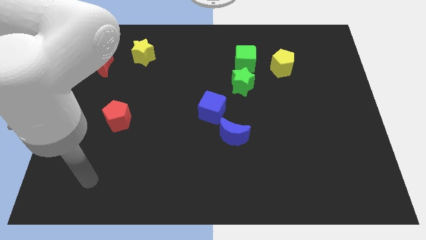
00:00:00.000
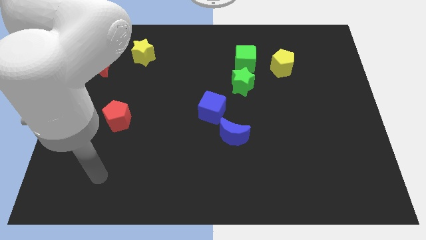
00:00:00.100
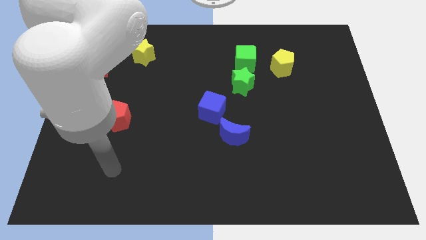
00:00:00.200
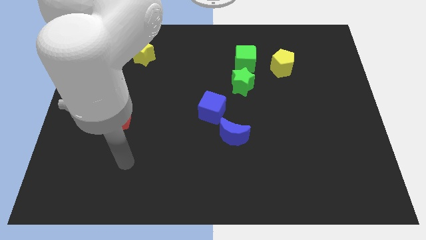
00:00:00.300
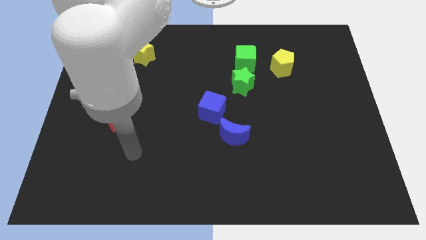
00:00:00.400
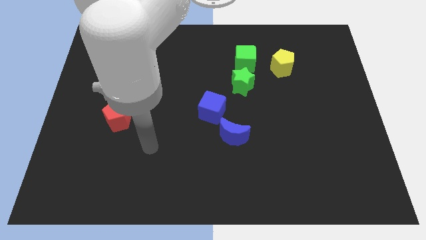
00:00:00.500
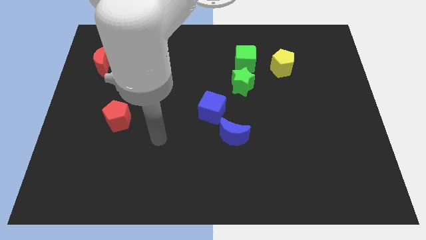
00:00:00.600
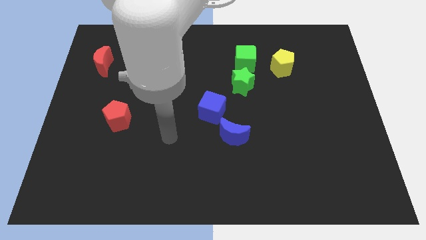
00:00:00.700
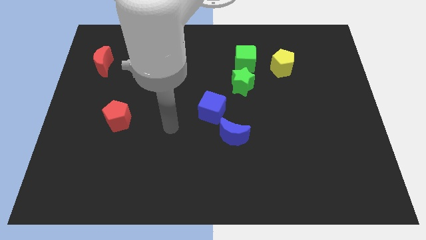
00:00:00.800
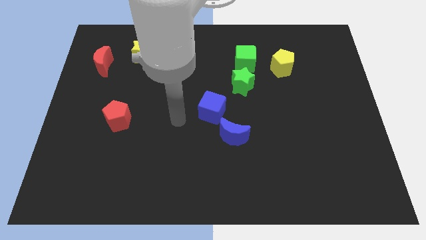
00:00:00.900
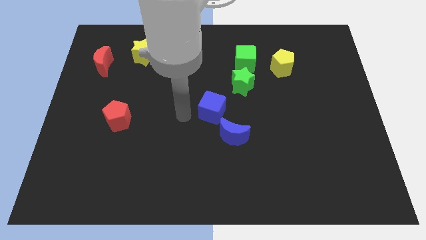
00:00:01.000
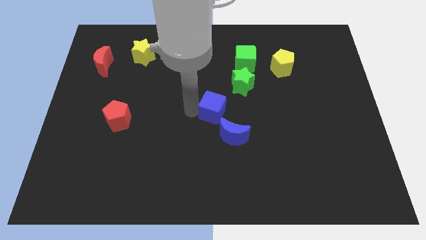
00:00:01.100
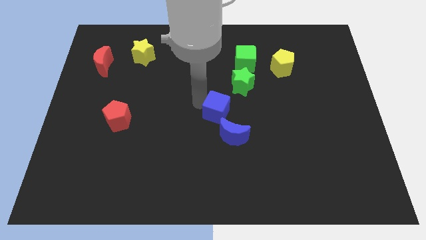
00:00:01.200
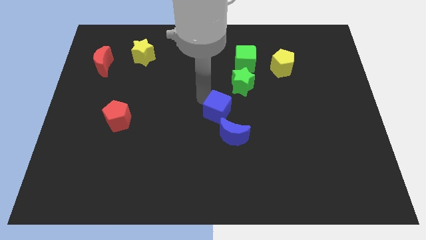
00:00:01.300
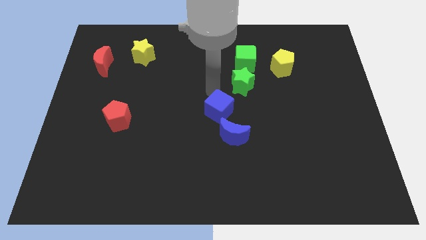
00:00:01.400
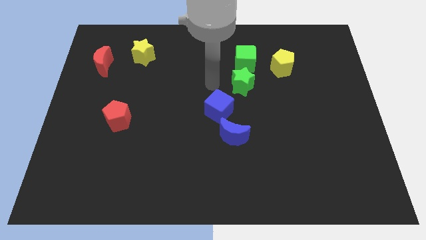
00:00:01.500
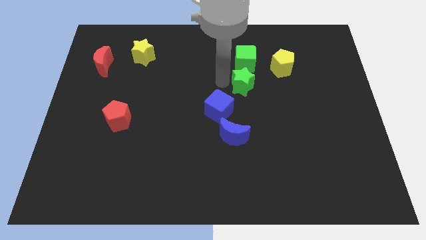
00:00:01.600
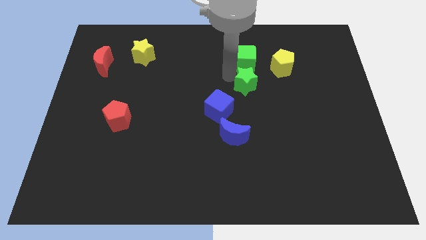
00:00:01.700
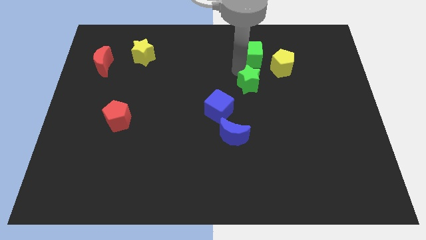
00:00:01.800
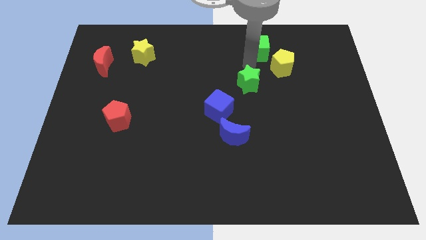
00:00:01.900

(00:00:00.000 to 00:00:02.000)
pull the green star apart from the green cube

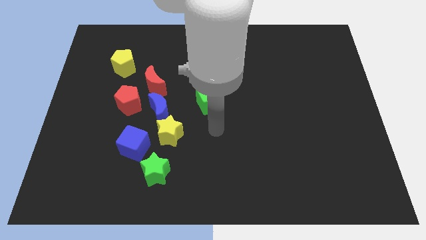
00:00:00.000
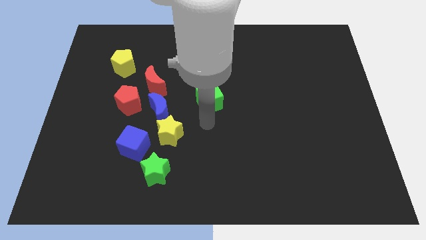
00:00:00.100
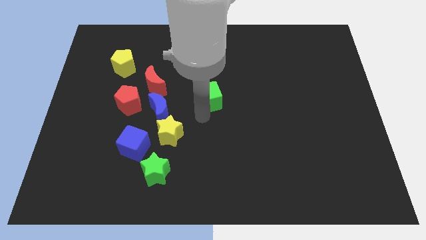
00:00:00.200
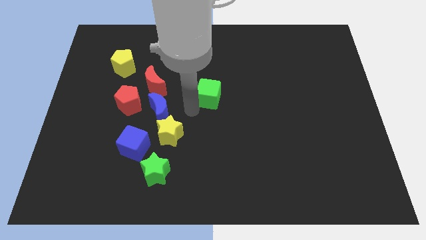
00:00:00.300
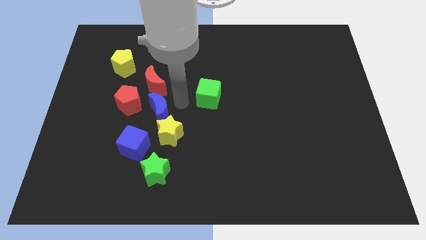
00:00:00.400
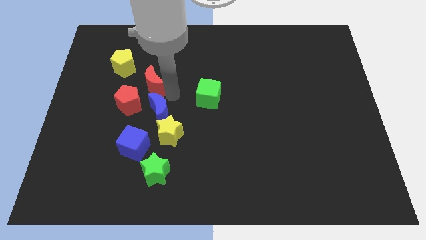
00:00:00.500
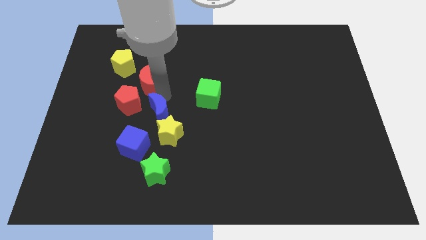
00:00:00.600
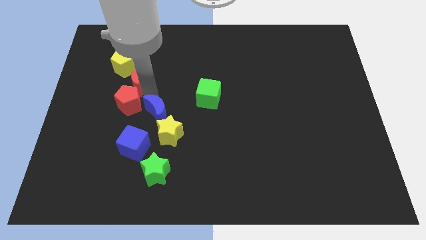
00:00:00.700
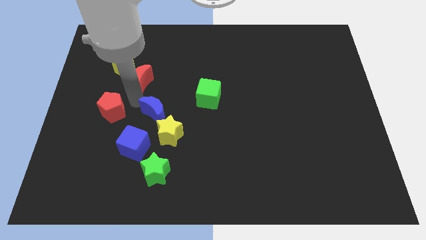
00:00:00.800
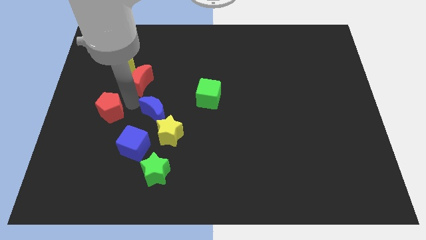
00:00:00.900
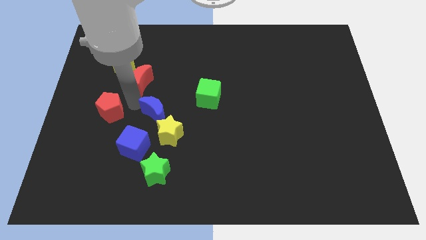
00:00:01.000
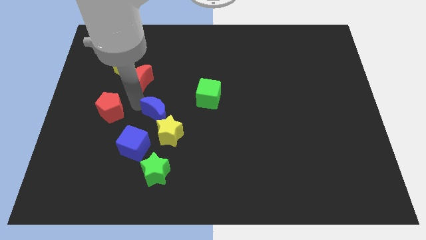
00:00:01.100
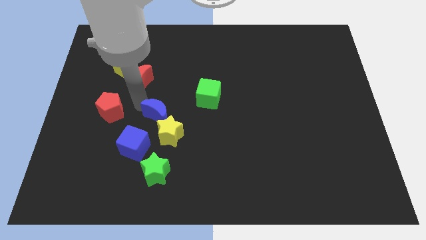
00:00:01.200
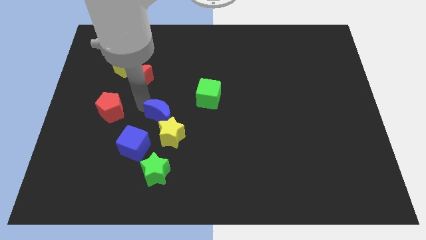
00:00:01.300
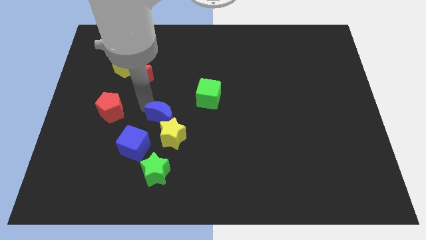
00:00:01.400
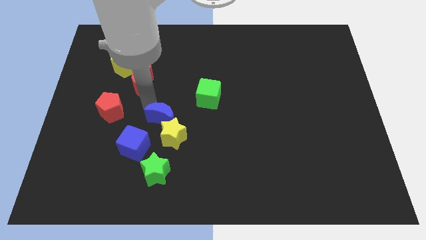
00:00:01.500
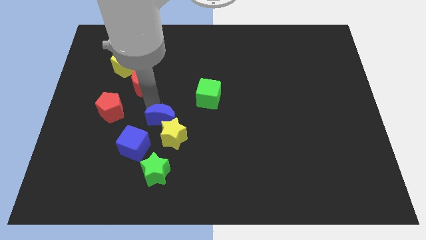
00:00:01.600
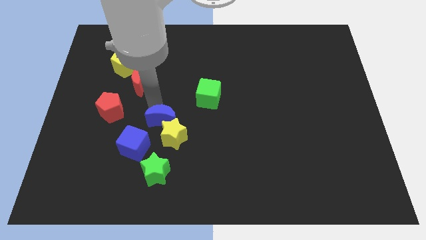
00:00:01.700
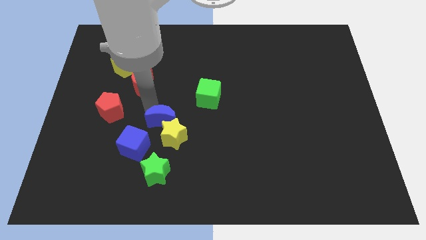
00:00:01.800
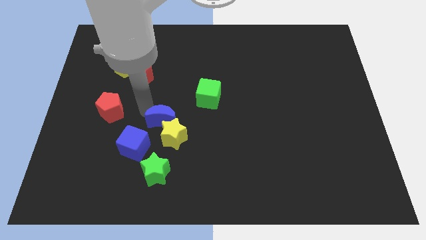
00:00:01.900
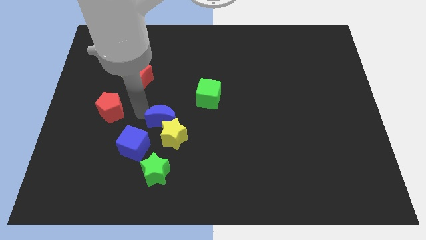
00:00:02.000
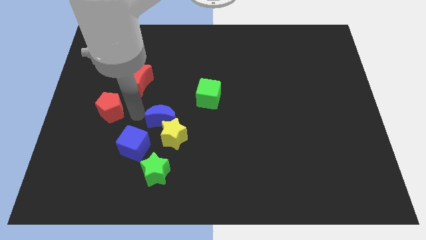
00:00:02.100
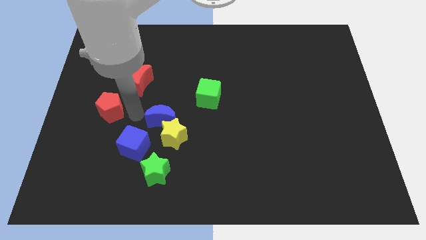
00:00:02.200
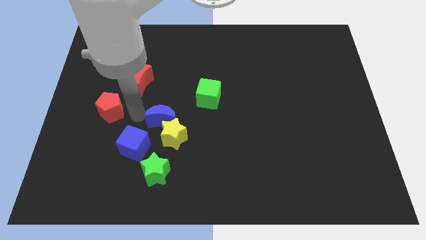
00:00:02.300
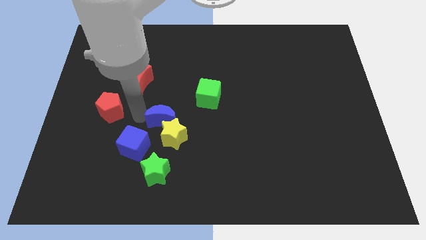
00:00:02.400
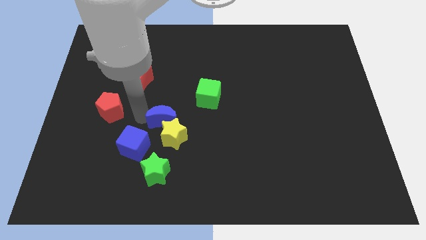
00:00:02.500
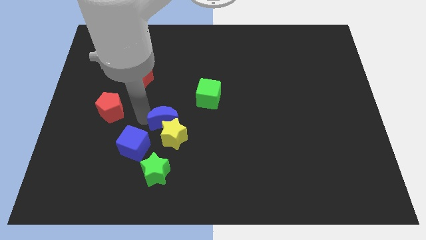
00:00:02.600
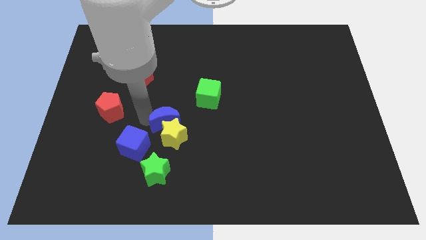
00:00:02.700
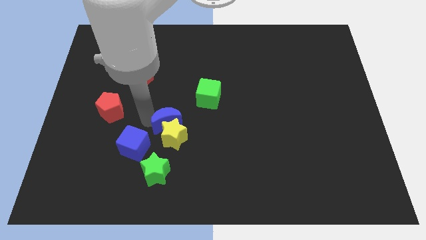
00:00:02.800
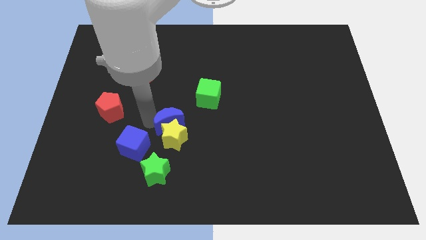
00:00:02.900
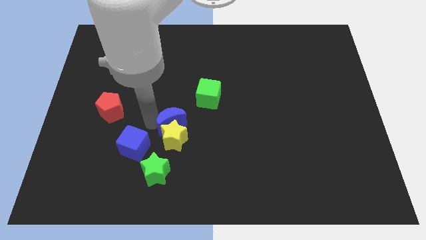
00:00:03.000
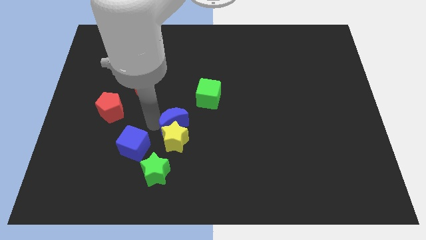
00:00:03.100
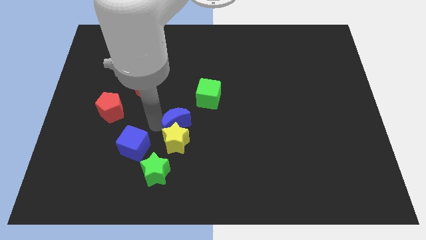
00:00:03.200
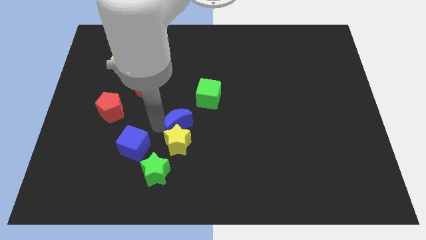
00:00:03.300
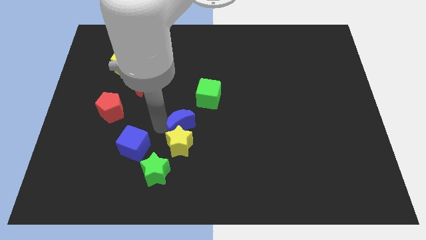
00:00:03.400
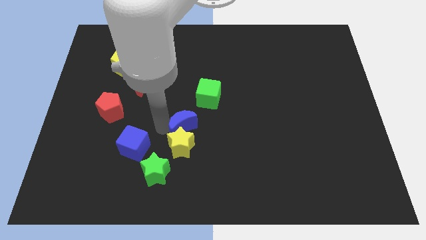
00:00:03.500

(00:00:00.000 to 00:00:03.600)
move the blue moon away from the yellow star, red pentagon, and red moon

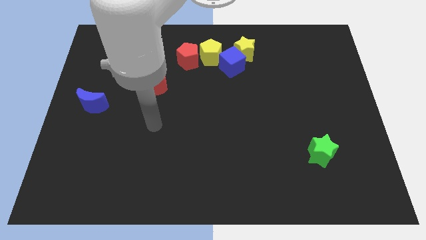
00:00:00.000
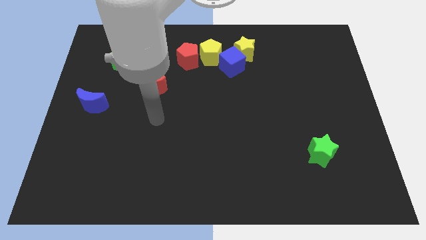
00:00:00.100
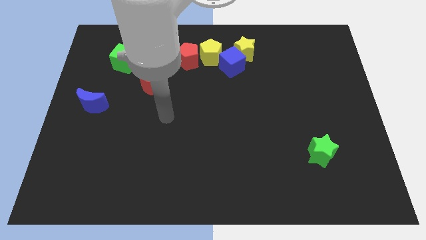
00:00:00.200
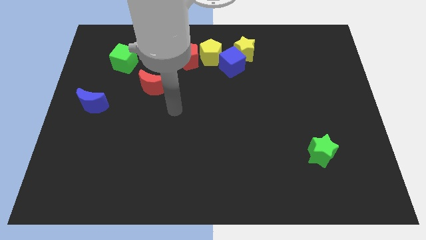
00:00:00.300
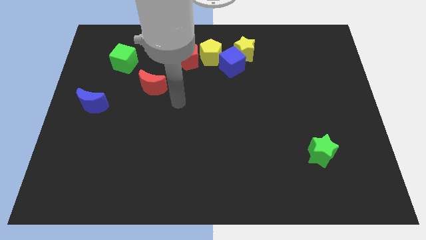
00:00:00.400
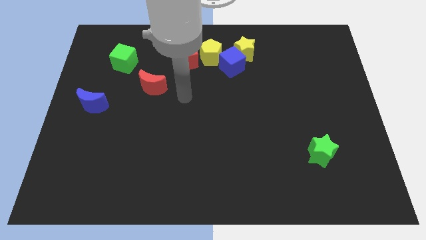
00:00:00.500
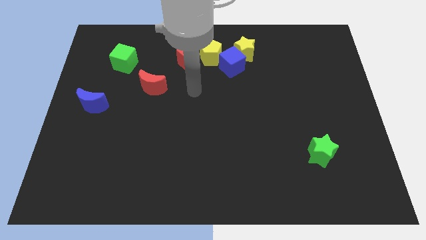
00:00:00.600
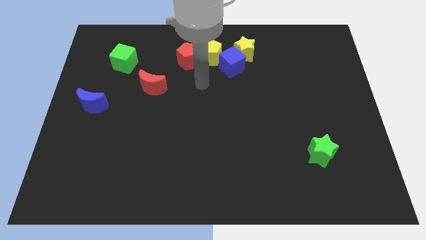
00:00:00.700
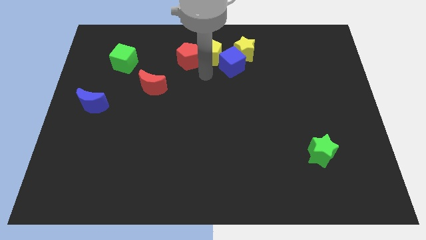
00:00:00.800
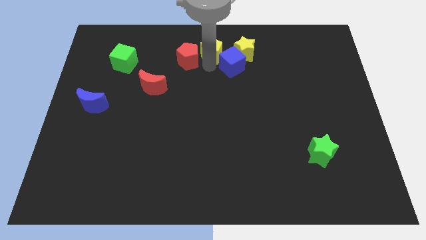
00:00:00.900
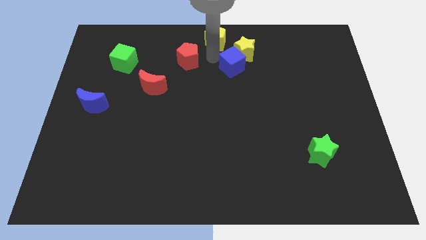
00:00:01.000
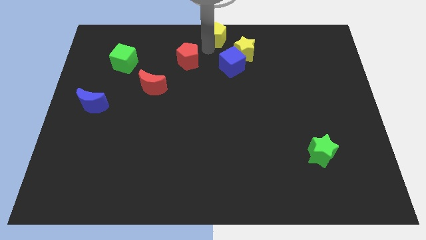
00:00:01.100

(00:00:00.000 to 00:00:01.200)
pull the red pentagon apart from the yellow pentagon

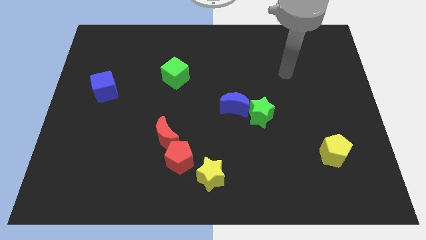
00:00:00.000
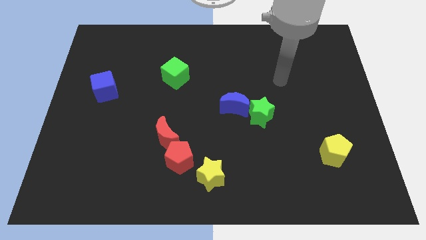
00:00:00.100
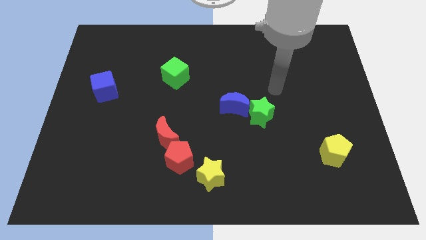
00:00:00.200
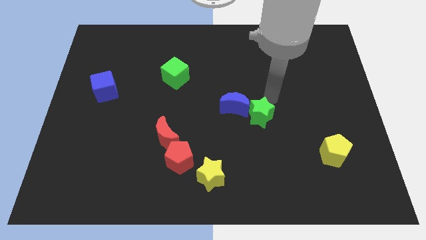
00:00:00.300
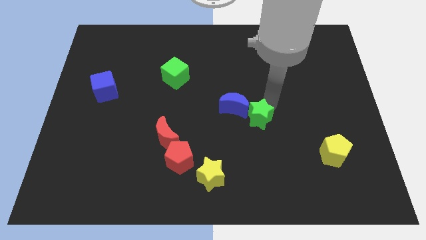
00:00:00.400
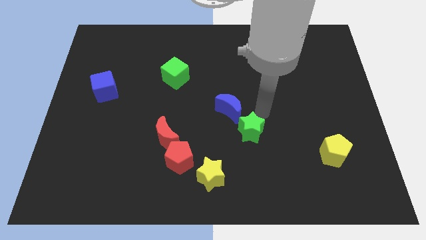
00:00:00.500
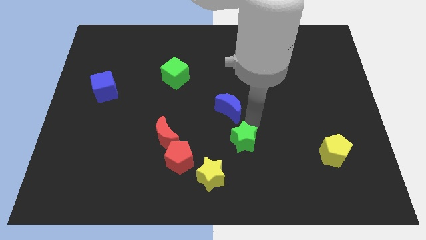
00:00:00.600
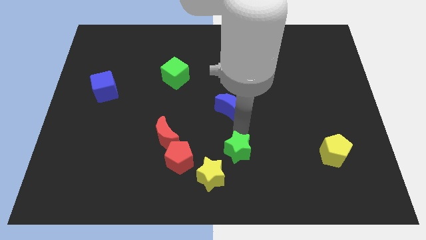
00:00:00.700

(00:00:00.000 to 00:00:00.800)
separate the blue moon from the green star

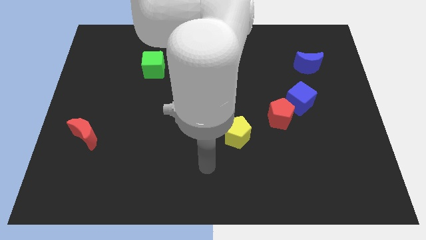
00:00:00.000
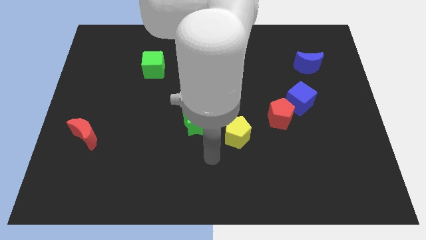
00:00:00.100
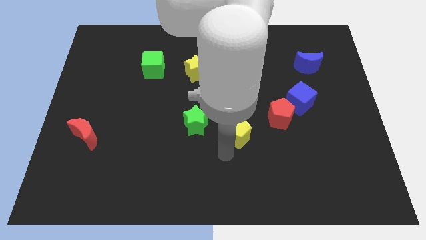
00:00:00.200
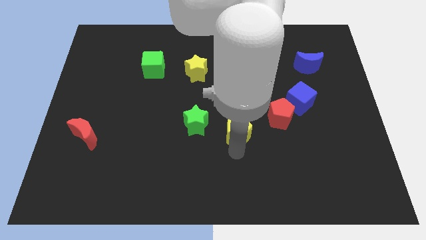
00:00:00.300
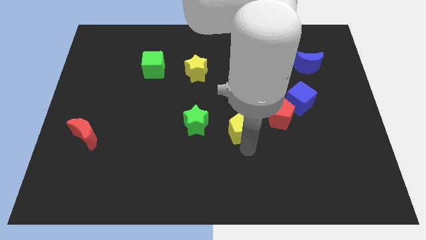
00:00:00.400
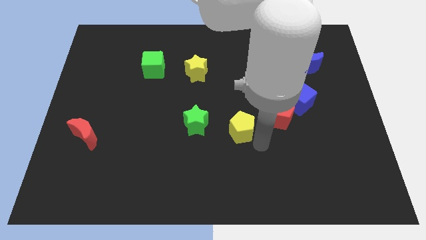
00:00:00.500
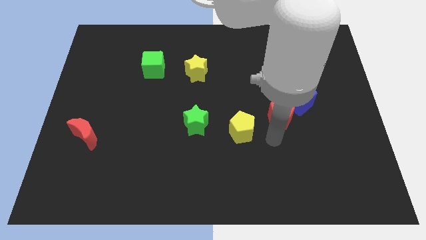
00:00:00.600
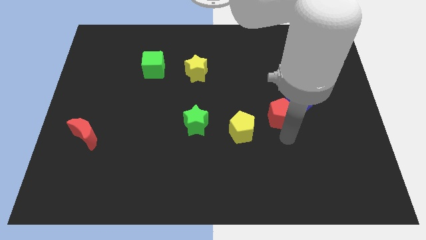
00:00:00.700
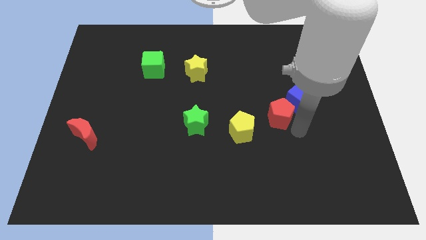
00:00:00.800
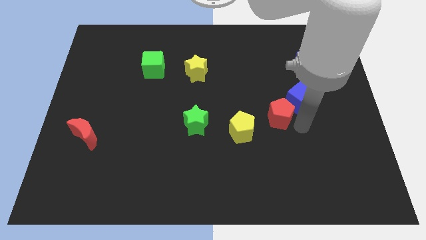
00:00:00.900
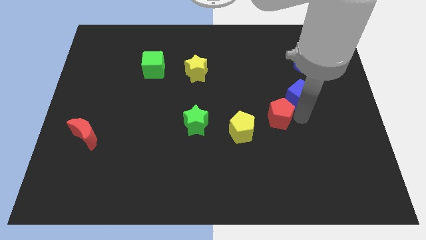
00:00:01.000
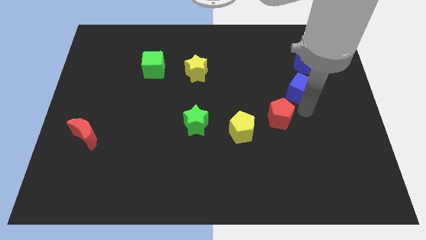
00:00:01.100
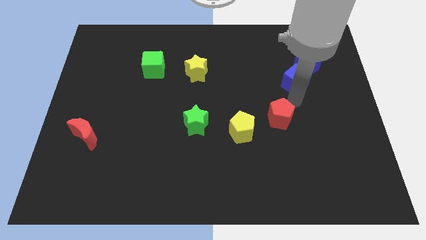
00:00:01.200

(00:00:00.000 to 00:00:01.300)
move the red pentagon away from the blue cube

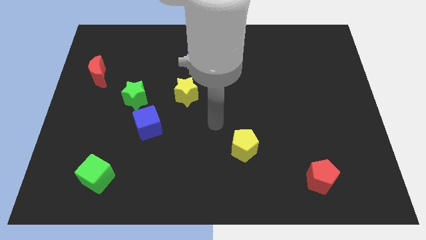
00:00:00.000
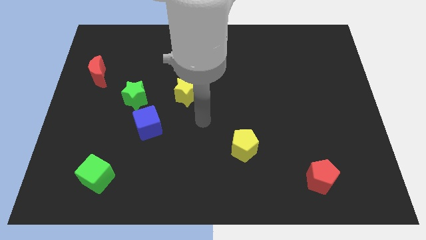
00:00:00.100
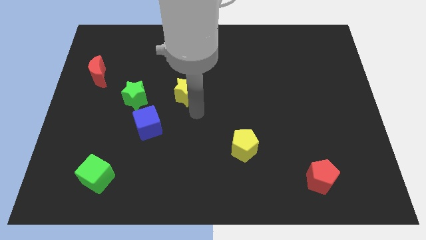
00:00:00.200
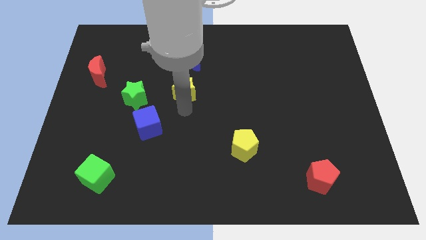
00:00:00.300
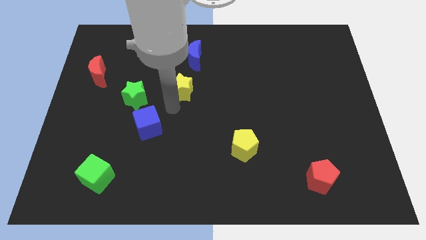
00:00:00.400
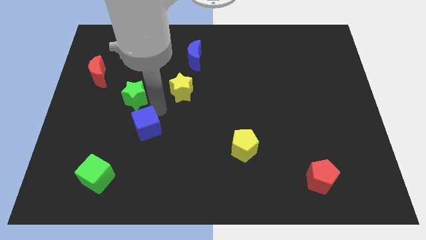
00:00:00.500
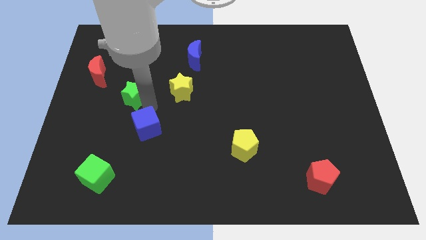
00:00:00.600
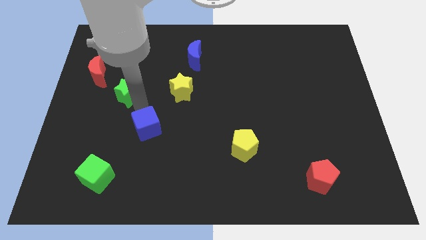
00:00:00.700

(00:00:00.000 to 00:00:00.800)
pull the blue cube apart from the green star
